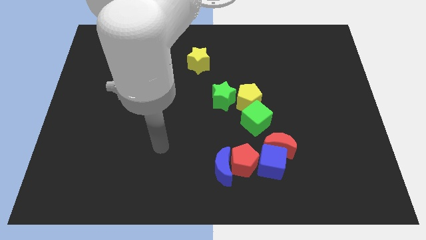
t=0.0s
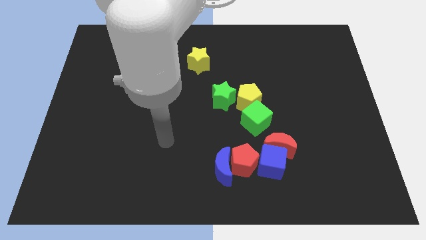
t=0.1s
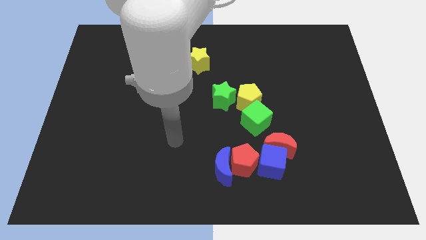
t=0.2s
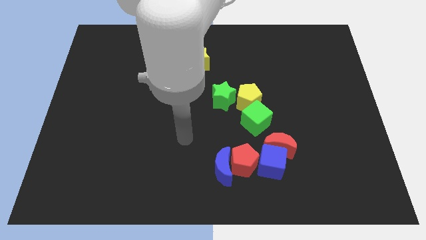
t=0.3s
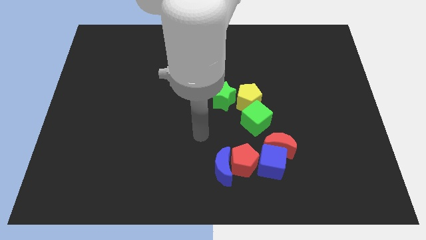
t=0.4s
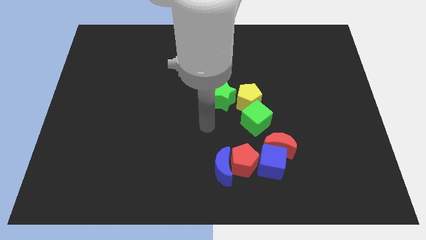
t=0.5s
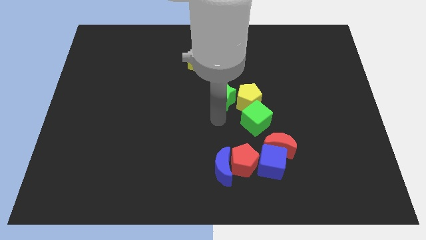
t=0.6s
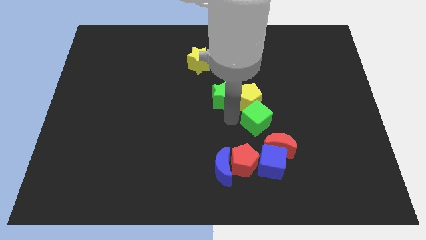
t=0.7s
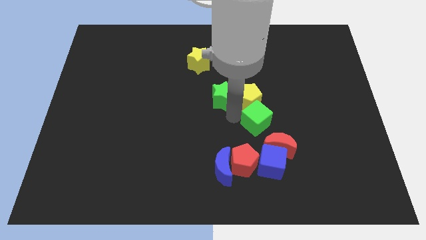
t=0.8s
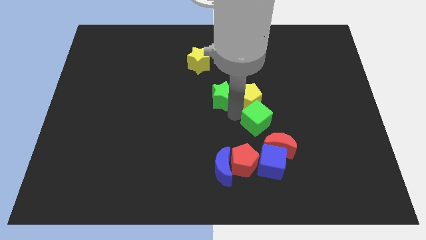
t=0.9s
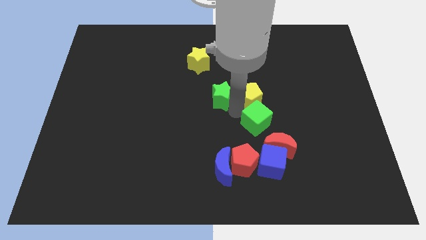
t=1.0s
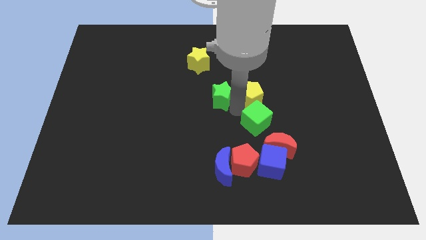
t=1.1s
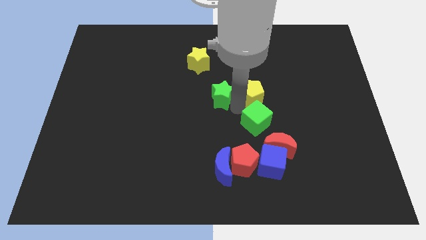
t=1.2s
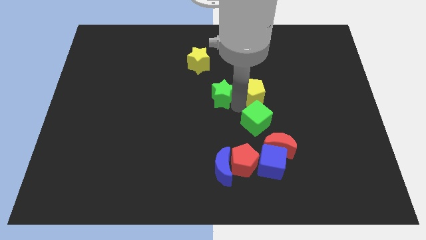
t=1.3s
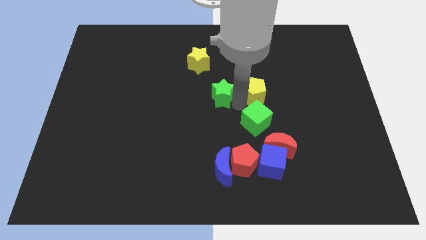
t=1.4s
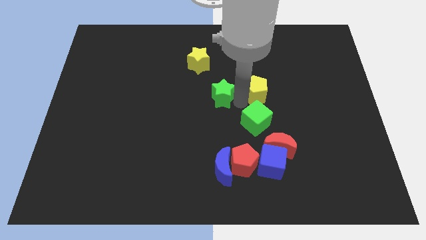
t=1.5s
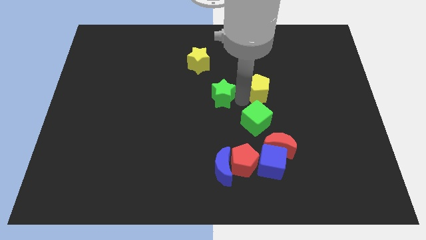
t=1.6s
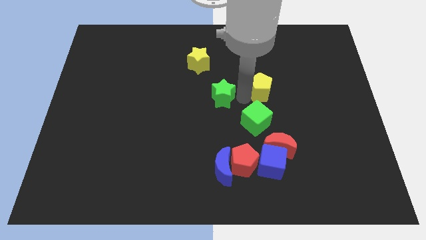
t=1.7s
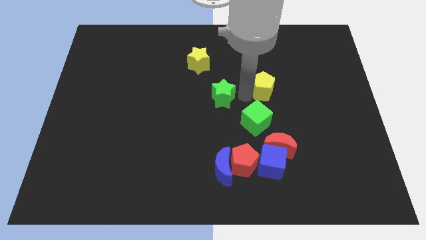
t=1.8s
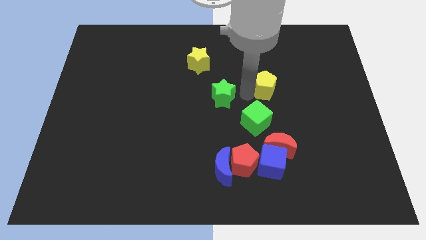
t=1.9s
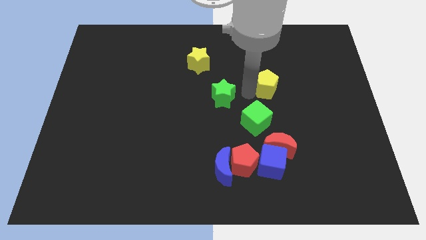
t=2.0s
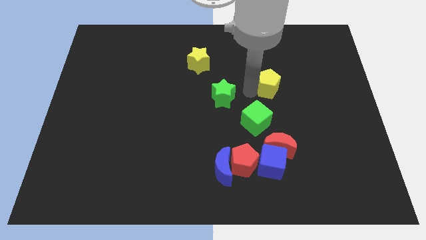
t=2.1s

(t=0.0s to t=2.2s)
move the yellow pentagon away from the green star and green cube

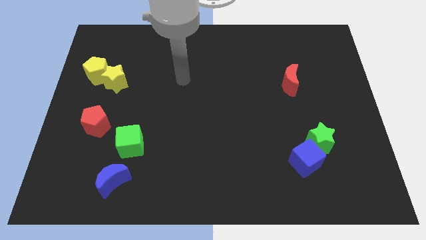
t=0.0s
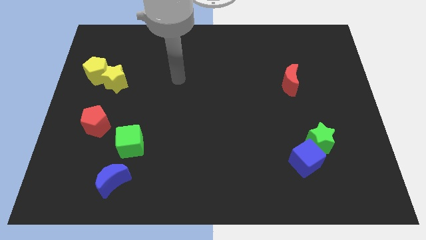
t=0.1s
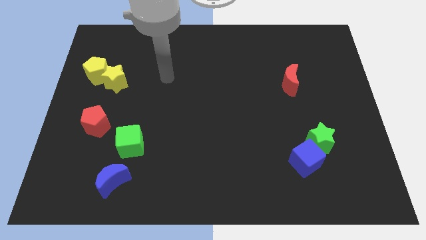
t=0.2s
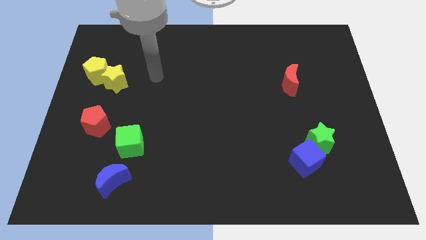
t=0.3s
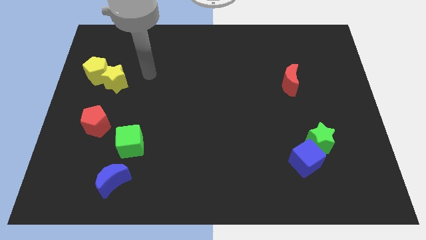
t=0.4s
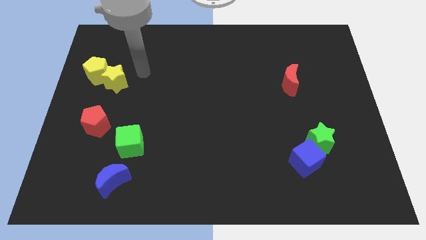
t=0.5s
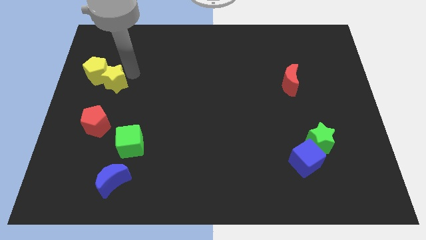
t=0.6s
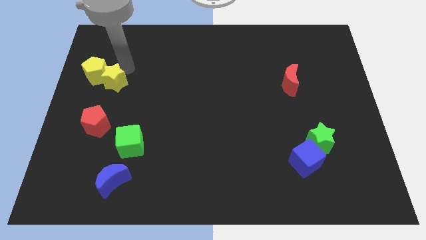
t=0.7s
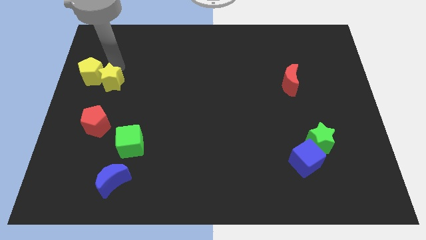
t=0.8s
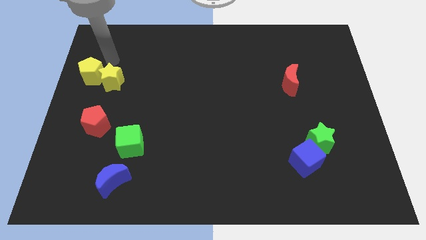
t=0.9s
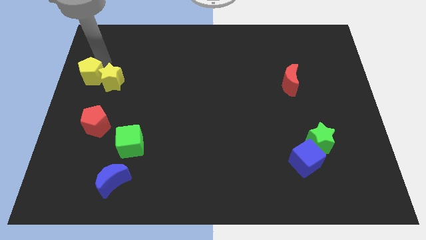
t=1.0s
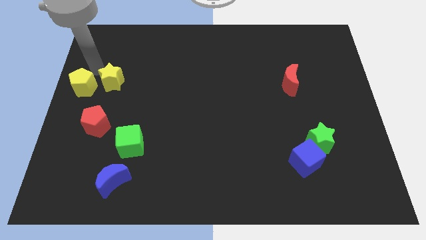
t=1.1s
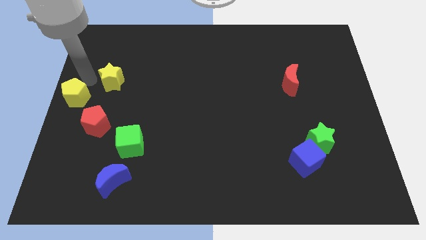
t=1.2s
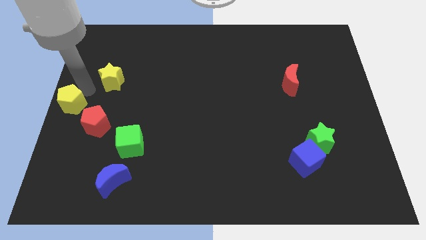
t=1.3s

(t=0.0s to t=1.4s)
separate the yellow star from the yellow pentagon

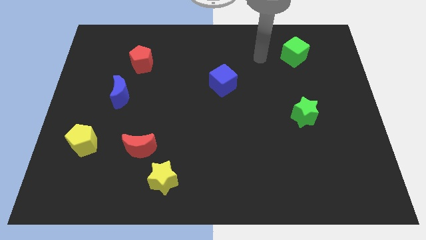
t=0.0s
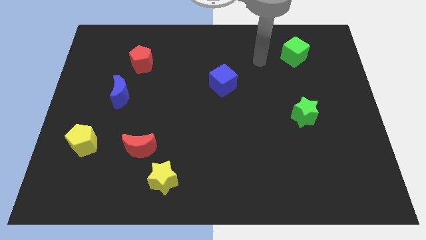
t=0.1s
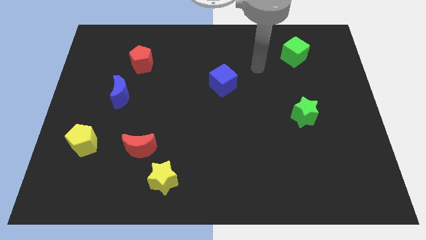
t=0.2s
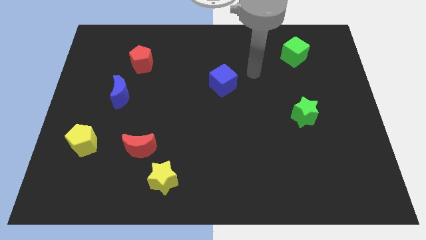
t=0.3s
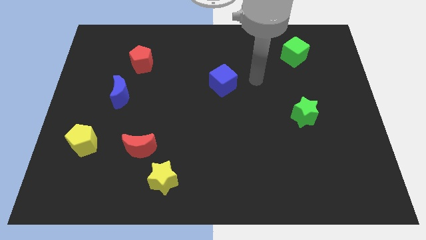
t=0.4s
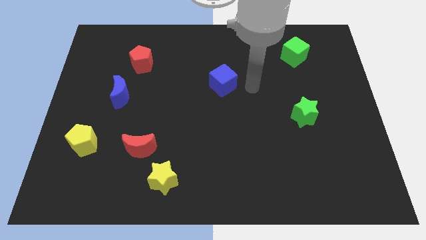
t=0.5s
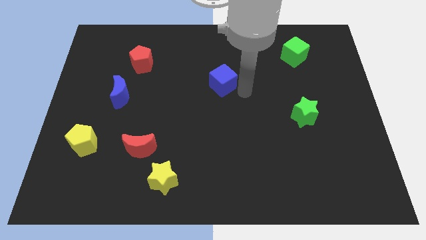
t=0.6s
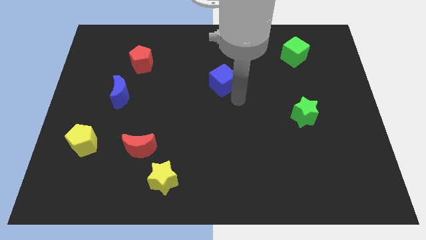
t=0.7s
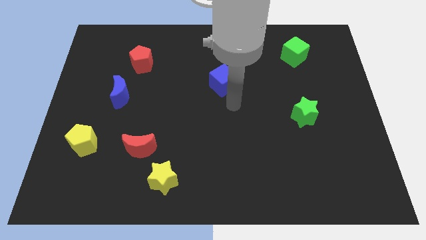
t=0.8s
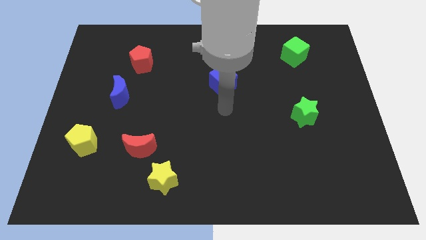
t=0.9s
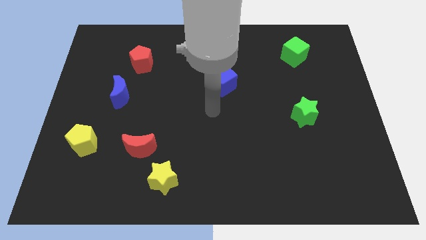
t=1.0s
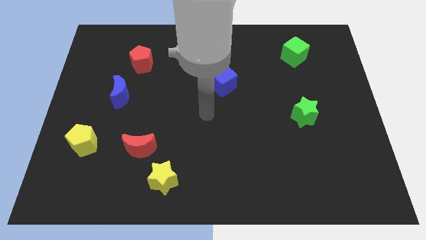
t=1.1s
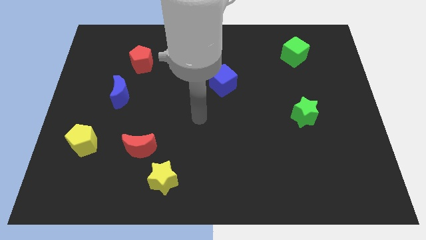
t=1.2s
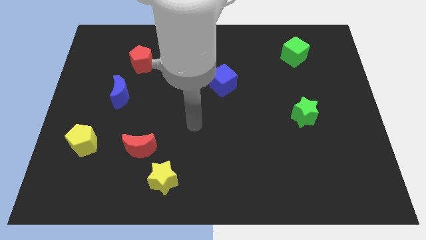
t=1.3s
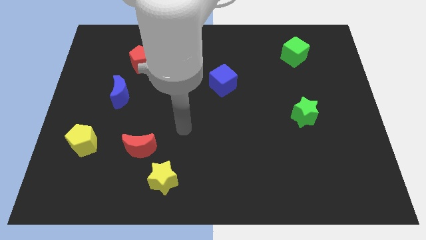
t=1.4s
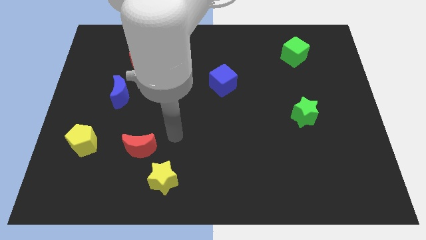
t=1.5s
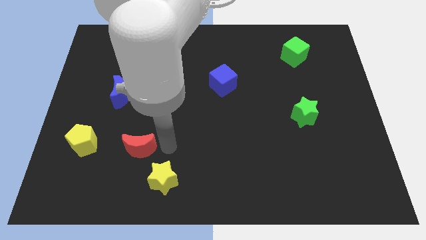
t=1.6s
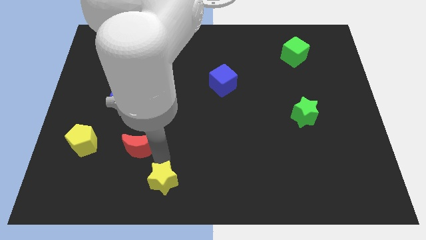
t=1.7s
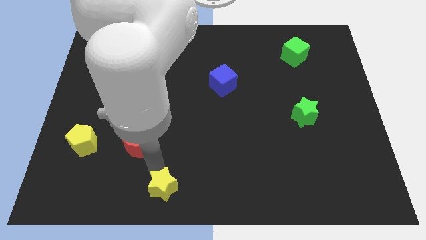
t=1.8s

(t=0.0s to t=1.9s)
separate the red moon from the yellow star

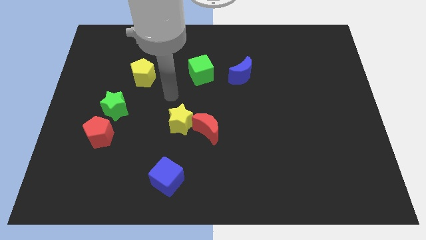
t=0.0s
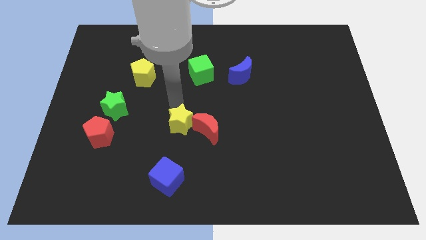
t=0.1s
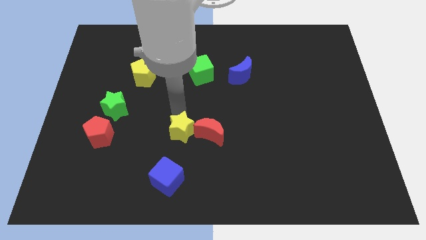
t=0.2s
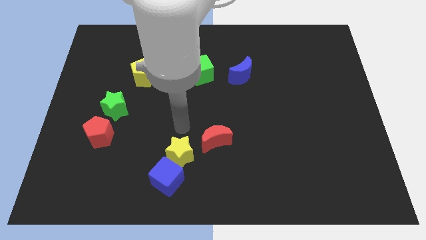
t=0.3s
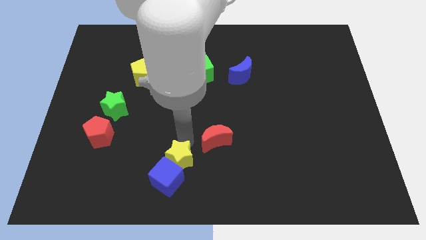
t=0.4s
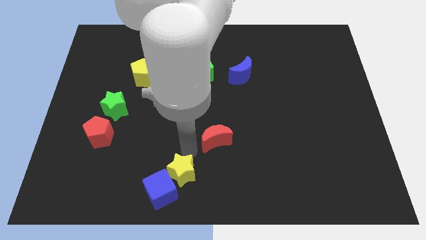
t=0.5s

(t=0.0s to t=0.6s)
move the red moon away from the yellow star

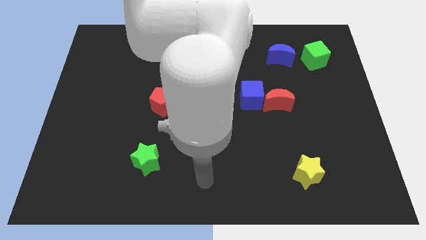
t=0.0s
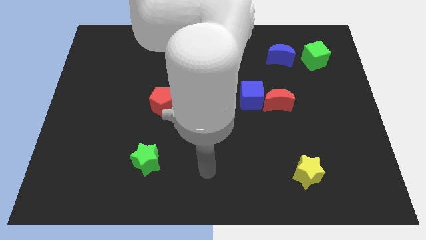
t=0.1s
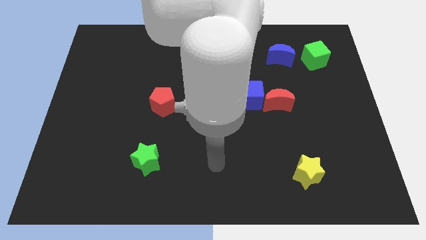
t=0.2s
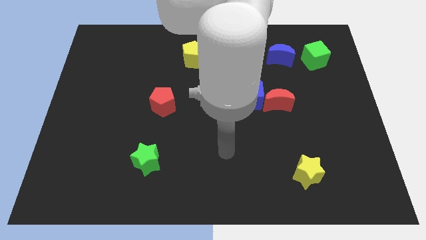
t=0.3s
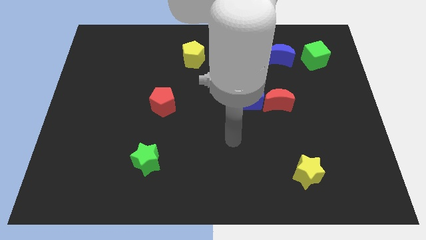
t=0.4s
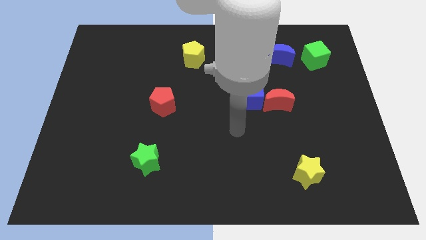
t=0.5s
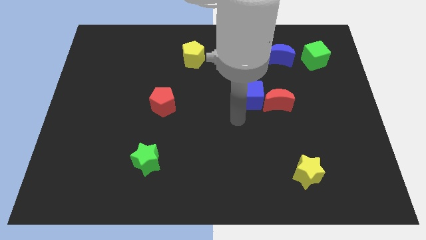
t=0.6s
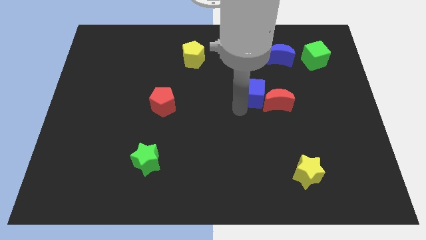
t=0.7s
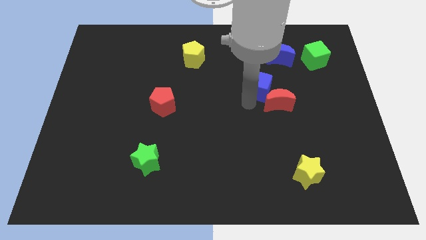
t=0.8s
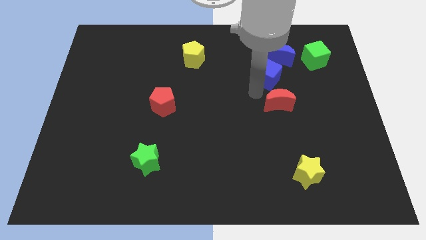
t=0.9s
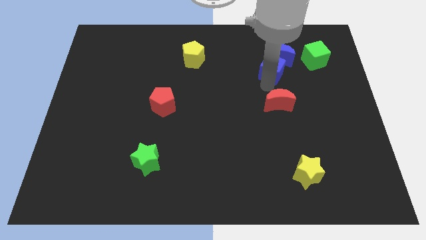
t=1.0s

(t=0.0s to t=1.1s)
pull the red moon apart from the blue cube

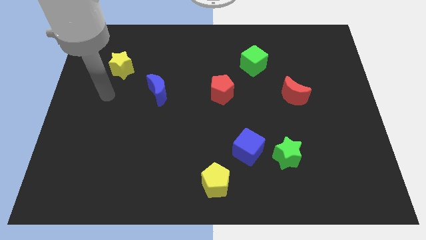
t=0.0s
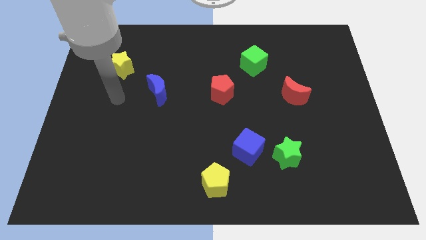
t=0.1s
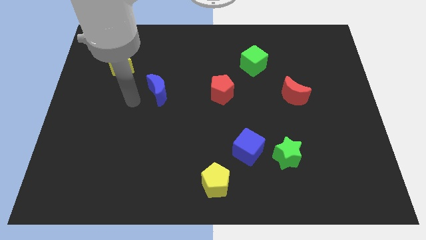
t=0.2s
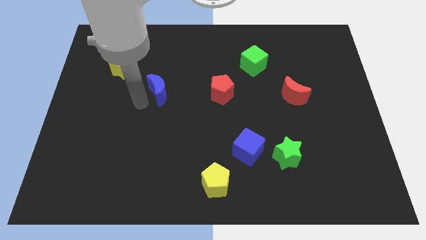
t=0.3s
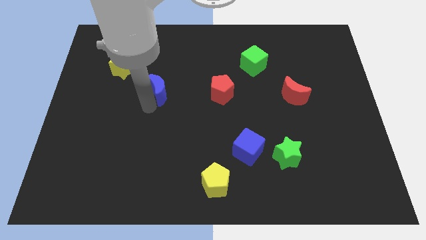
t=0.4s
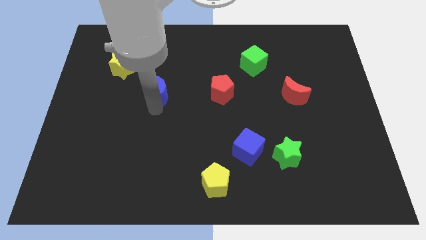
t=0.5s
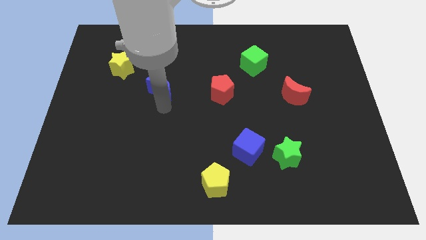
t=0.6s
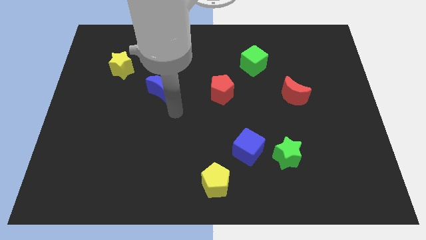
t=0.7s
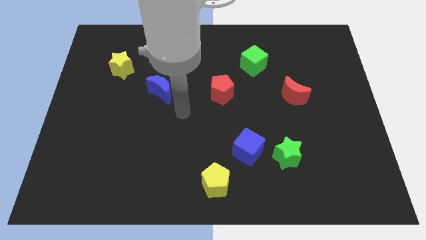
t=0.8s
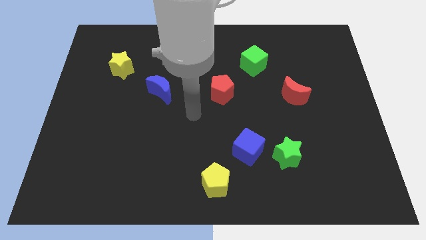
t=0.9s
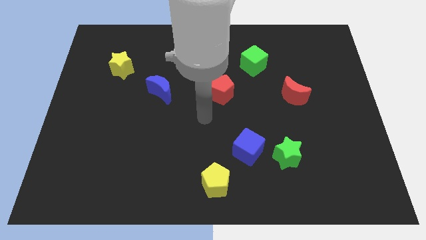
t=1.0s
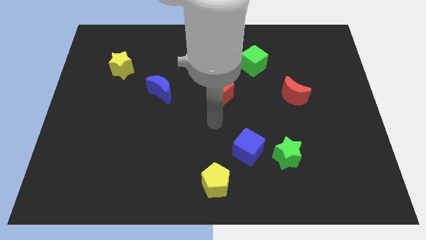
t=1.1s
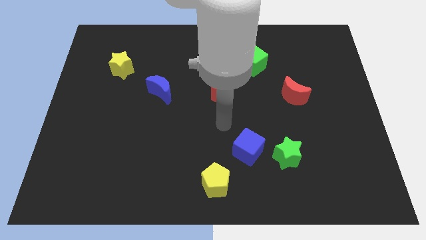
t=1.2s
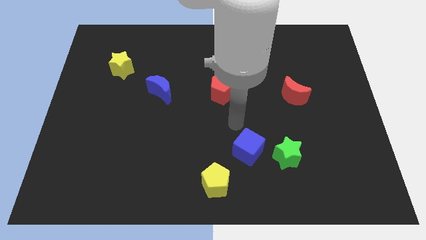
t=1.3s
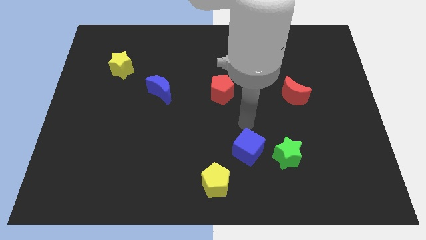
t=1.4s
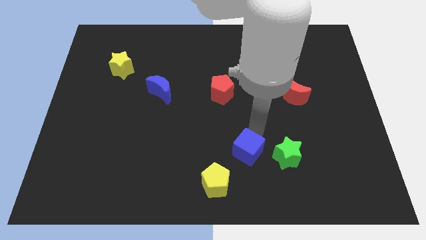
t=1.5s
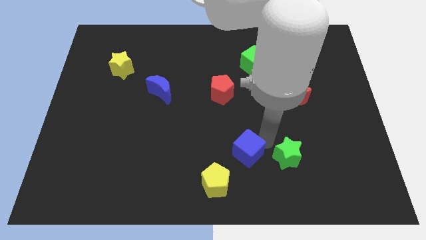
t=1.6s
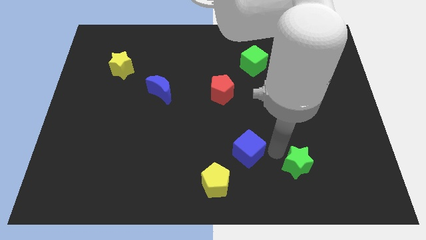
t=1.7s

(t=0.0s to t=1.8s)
pull the blue cube apart from the green star

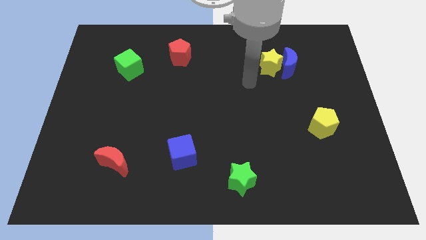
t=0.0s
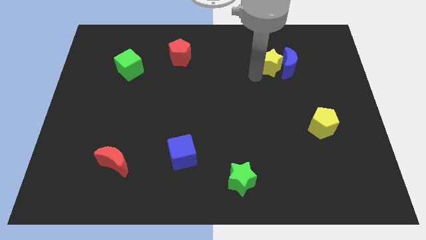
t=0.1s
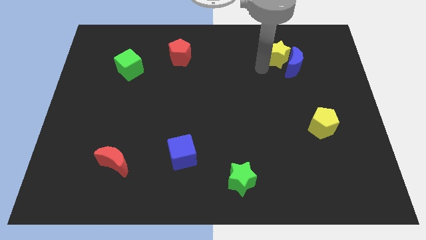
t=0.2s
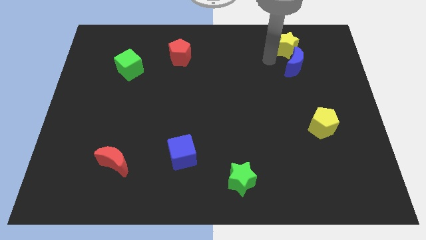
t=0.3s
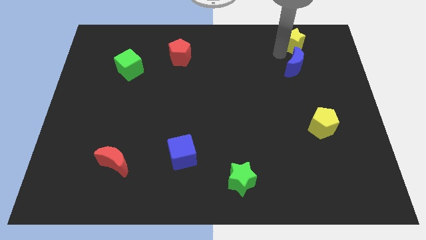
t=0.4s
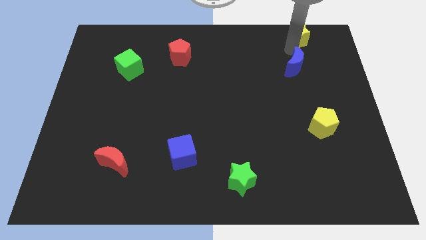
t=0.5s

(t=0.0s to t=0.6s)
separate the blue moon from the yellow star
